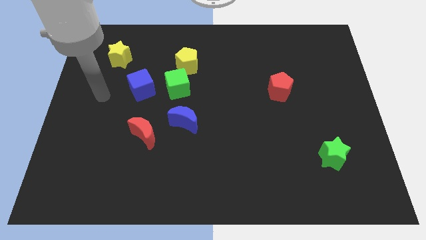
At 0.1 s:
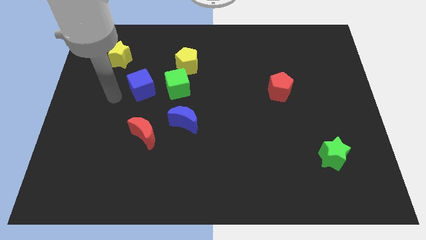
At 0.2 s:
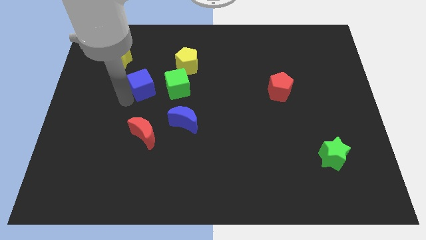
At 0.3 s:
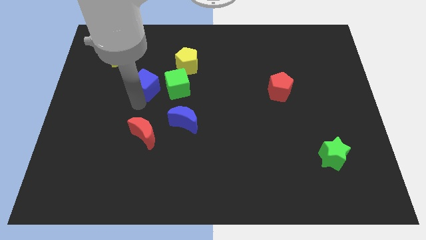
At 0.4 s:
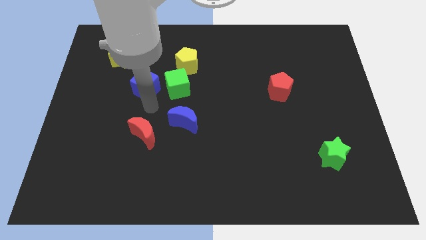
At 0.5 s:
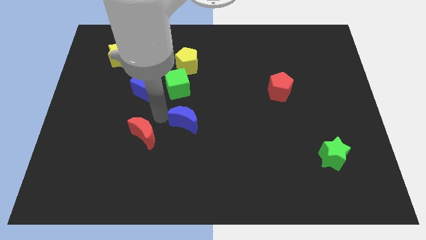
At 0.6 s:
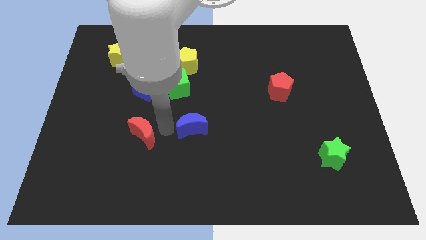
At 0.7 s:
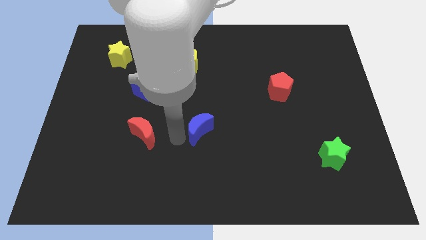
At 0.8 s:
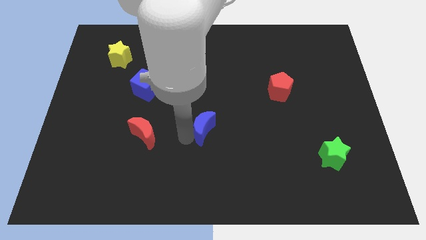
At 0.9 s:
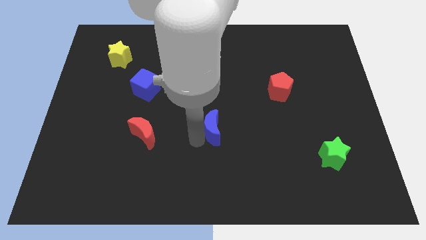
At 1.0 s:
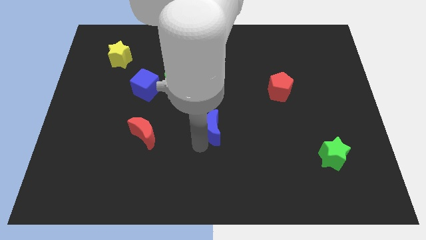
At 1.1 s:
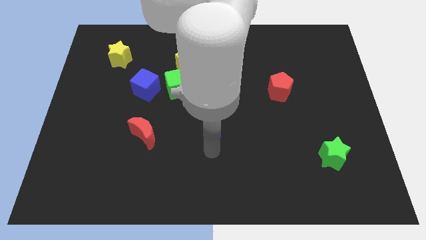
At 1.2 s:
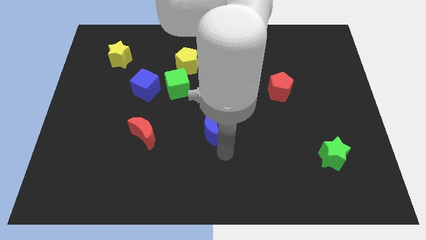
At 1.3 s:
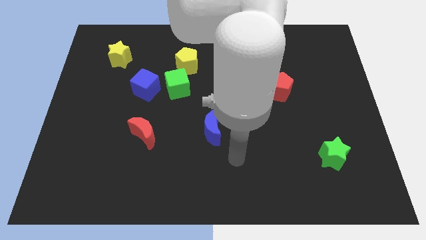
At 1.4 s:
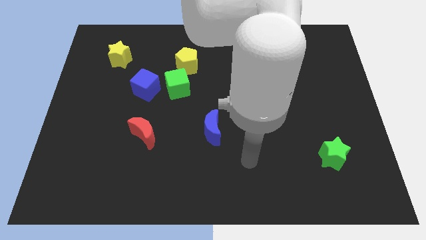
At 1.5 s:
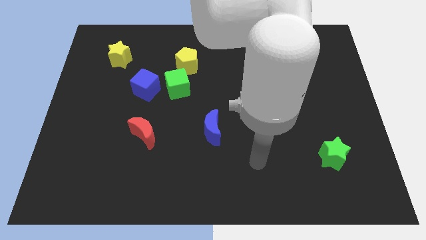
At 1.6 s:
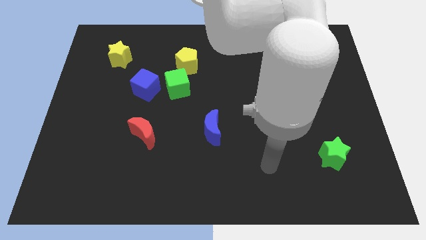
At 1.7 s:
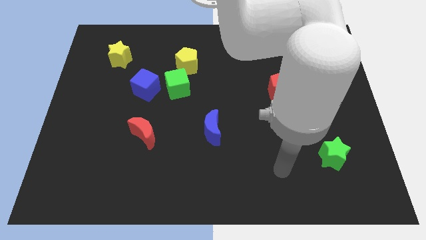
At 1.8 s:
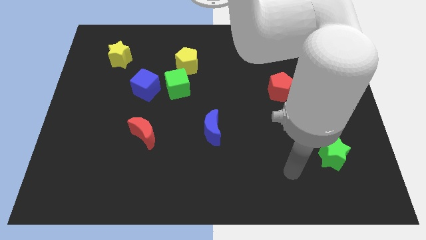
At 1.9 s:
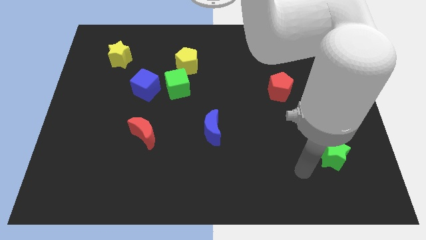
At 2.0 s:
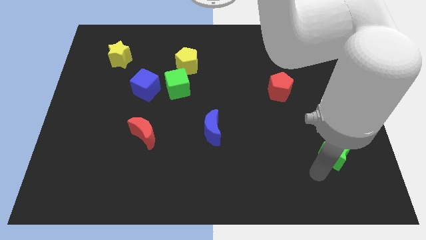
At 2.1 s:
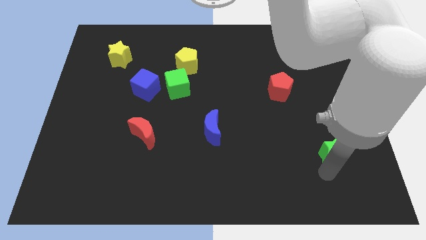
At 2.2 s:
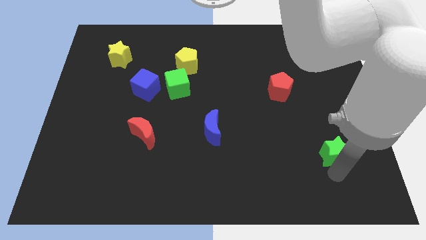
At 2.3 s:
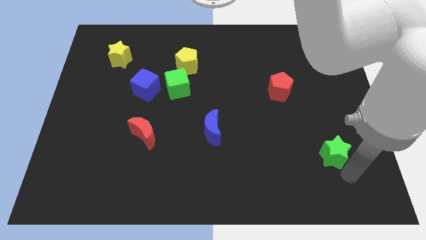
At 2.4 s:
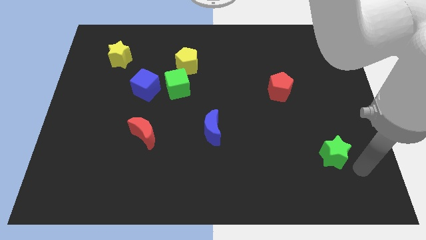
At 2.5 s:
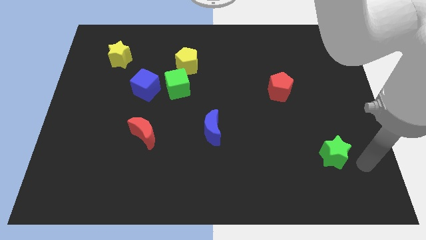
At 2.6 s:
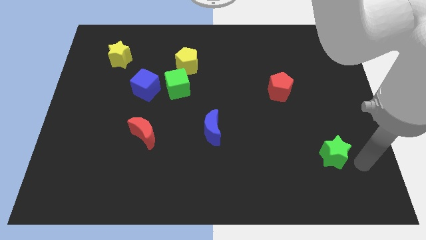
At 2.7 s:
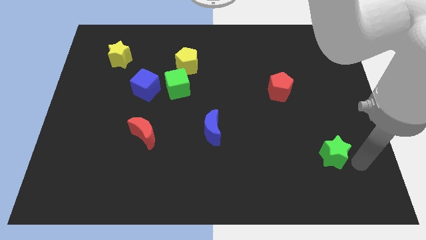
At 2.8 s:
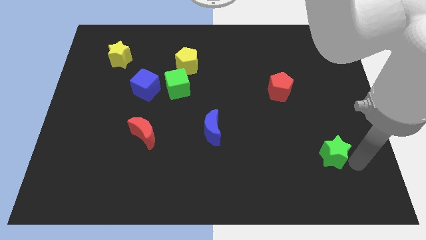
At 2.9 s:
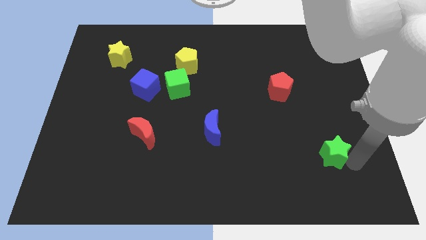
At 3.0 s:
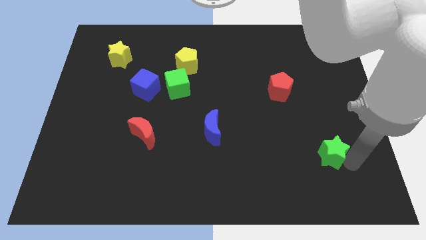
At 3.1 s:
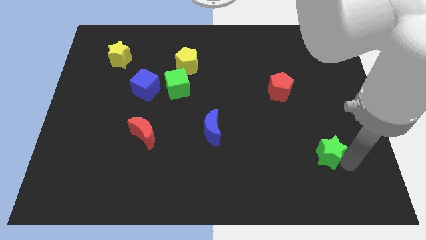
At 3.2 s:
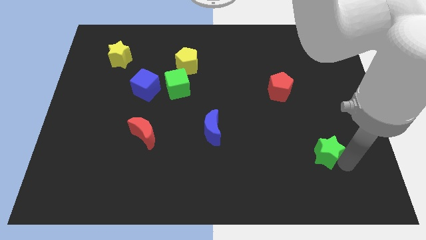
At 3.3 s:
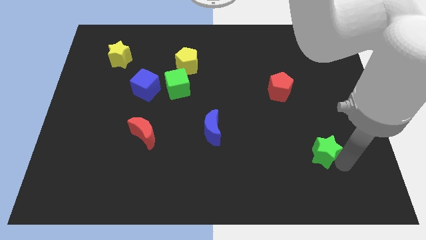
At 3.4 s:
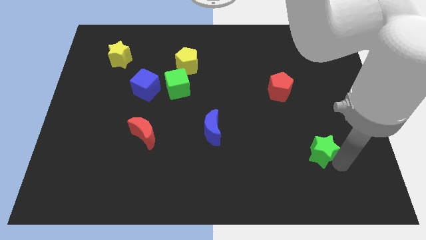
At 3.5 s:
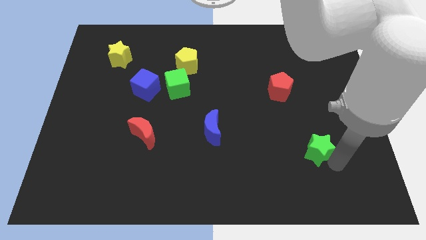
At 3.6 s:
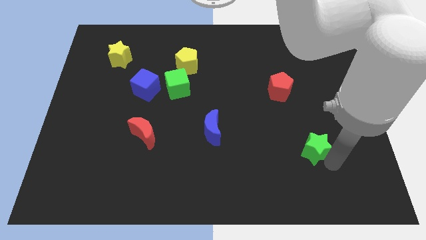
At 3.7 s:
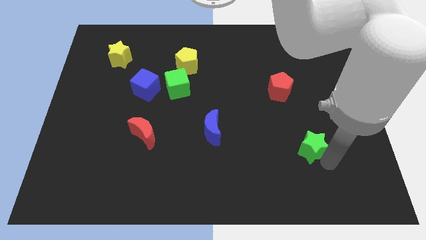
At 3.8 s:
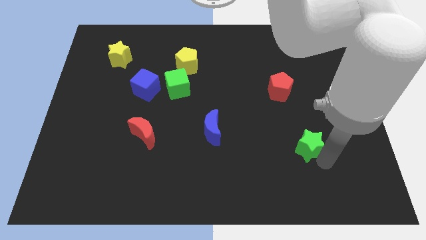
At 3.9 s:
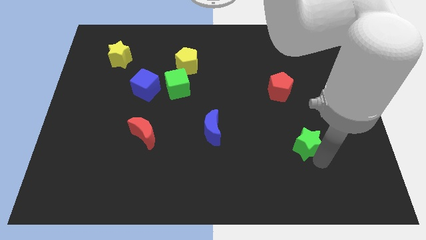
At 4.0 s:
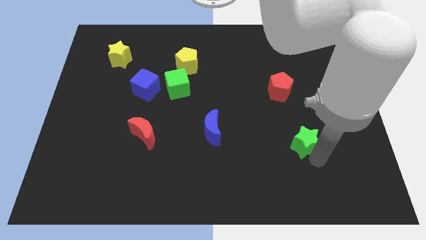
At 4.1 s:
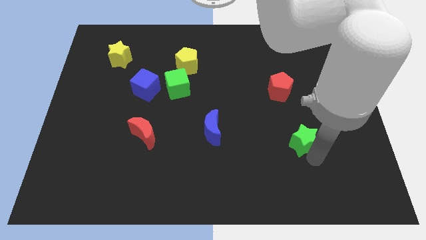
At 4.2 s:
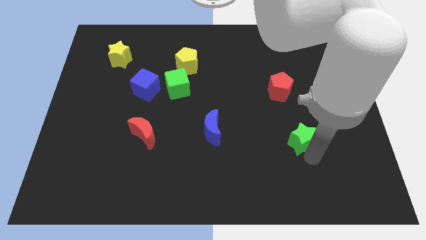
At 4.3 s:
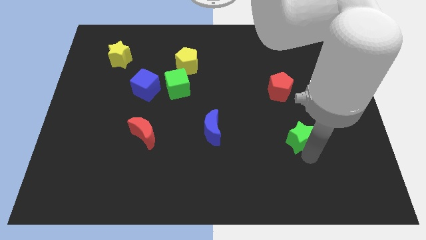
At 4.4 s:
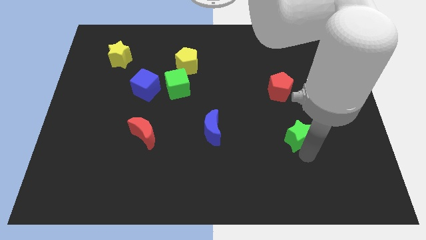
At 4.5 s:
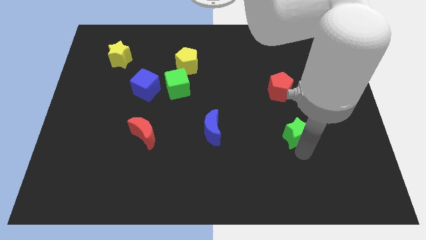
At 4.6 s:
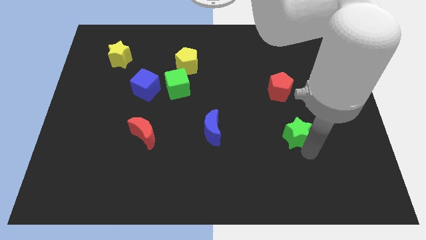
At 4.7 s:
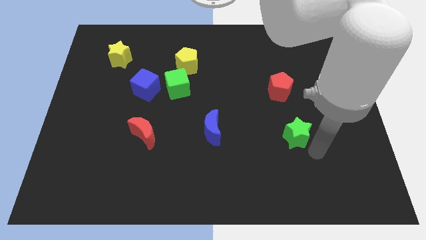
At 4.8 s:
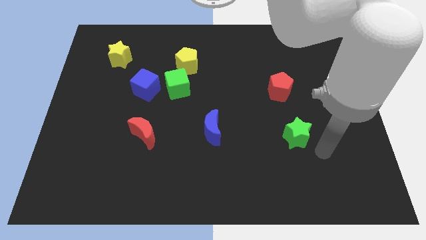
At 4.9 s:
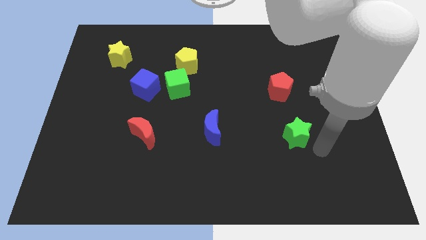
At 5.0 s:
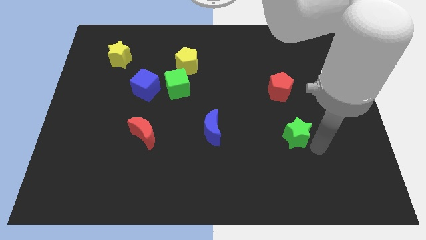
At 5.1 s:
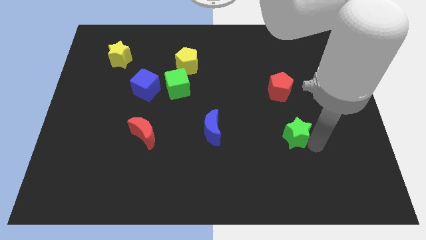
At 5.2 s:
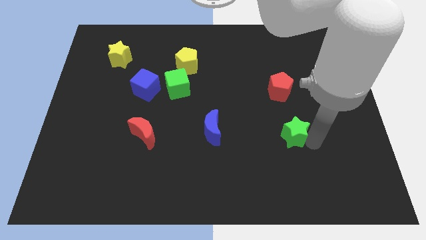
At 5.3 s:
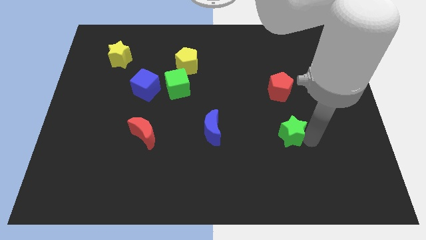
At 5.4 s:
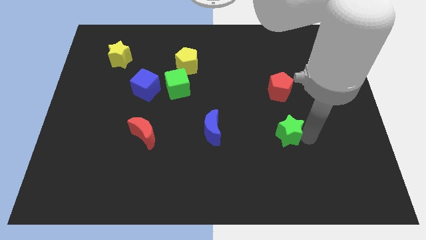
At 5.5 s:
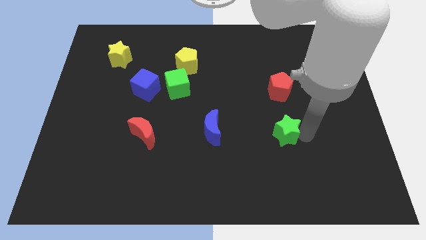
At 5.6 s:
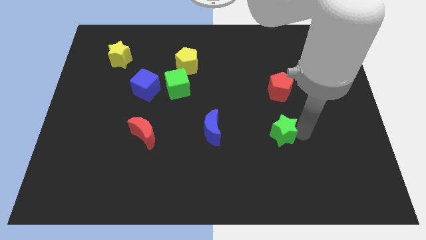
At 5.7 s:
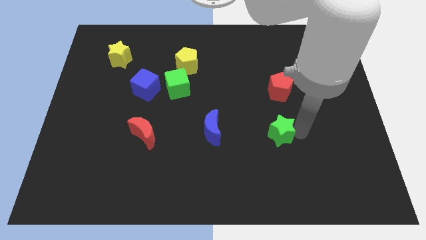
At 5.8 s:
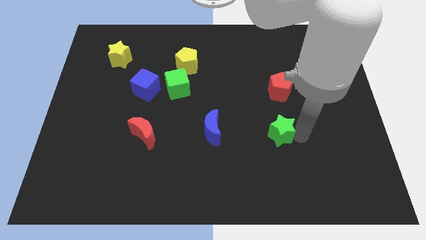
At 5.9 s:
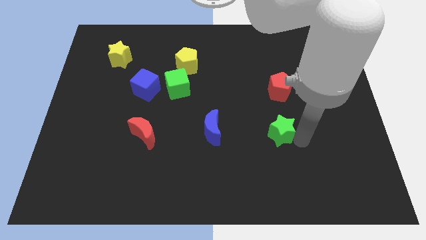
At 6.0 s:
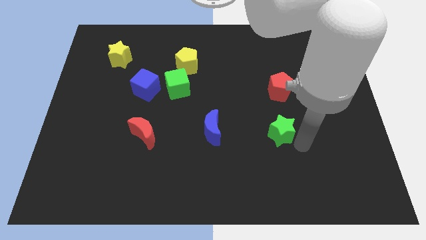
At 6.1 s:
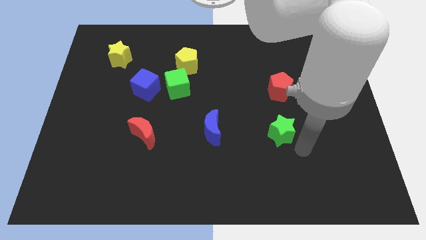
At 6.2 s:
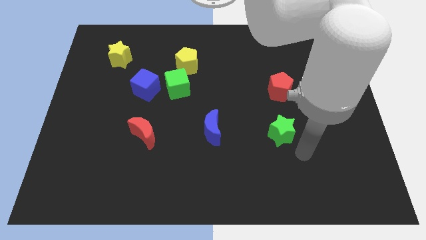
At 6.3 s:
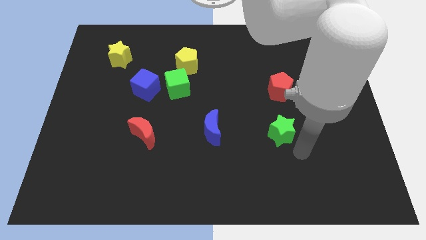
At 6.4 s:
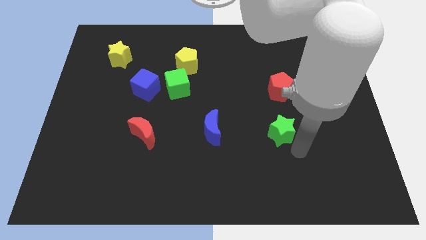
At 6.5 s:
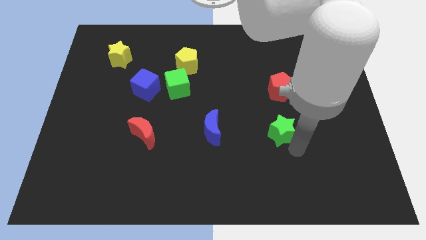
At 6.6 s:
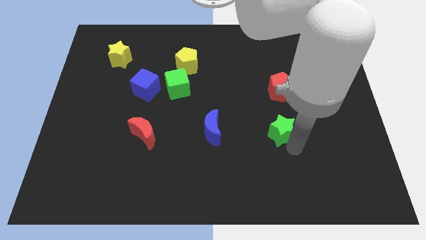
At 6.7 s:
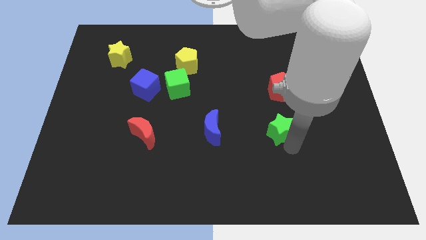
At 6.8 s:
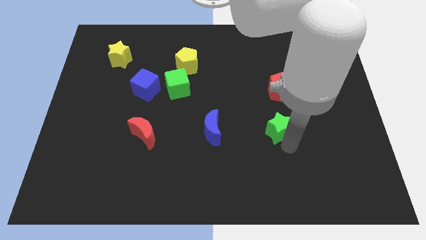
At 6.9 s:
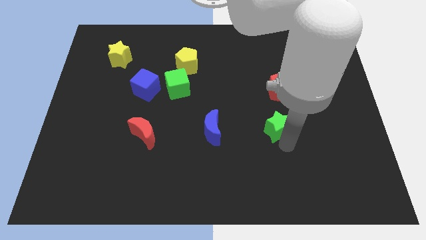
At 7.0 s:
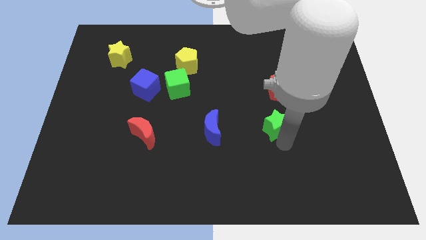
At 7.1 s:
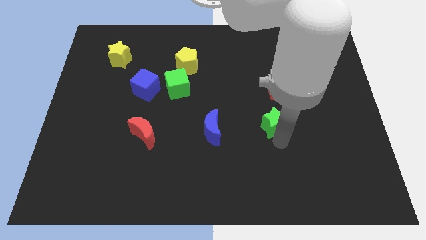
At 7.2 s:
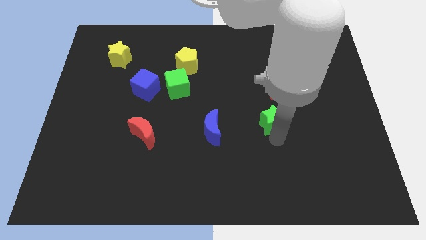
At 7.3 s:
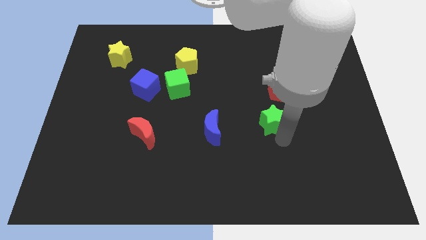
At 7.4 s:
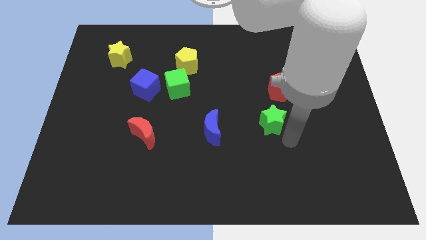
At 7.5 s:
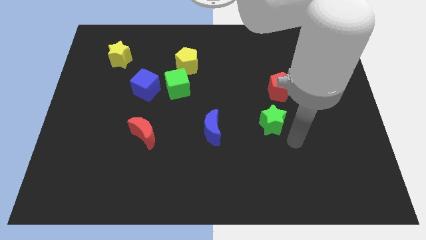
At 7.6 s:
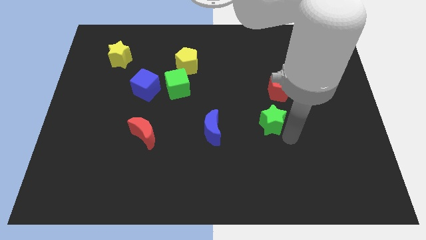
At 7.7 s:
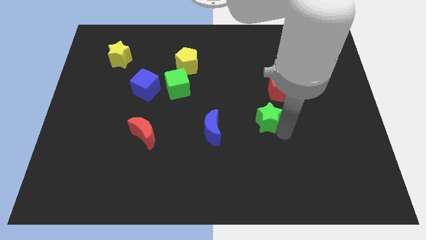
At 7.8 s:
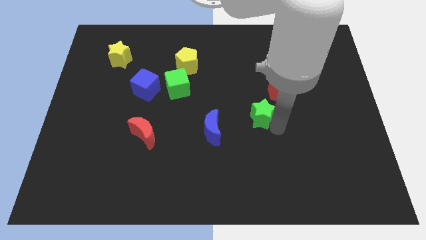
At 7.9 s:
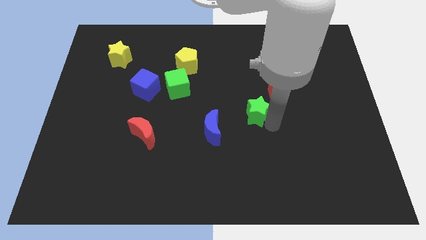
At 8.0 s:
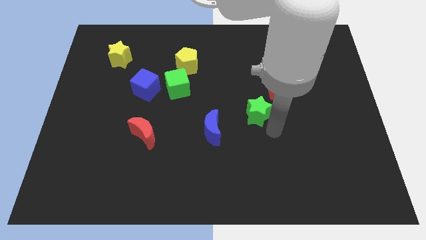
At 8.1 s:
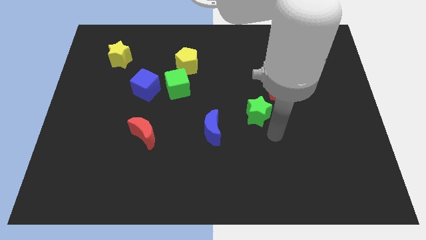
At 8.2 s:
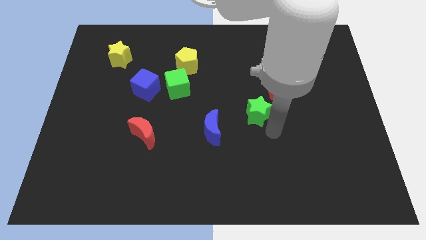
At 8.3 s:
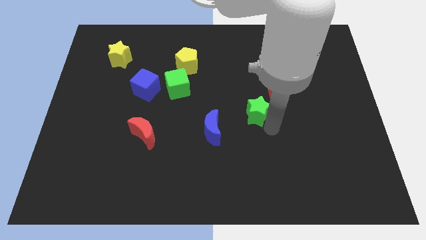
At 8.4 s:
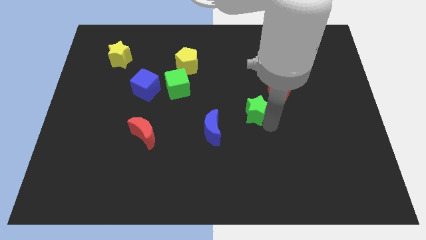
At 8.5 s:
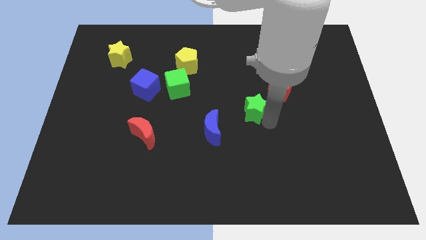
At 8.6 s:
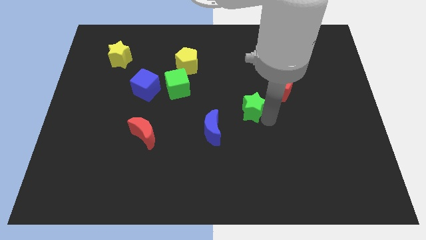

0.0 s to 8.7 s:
move the green star diagonally up and to the left
